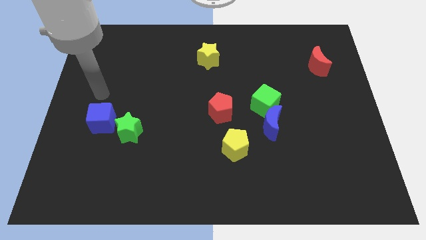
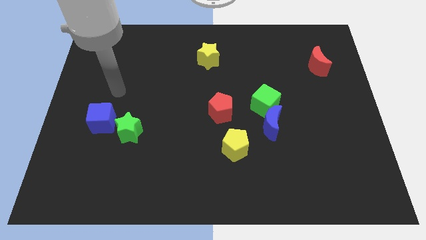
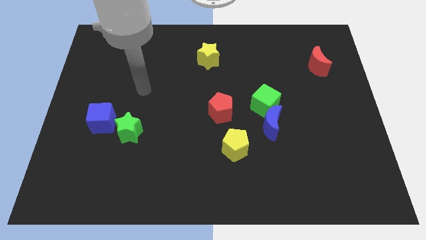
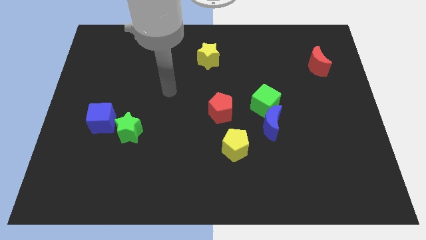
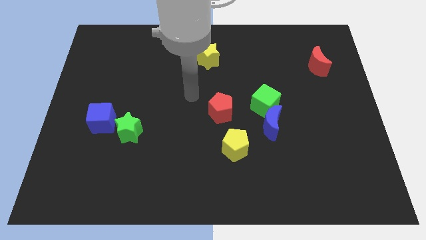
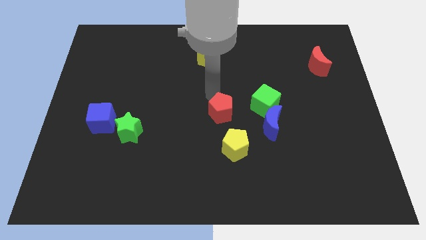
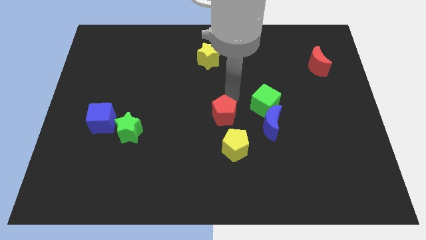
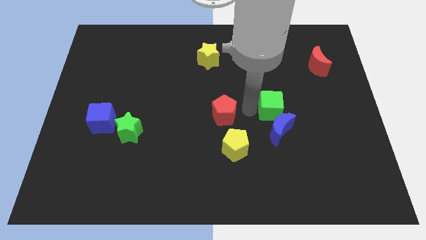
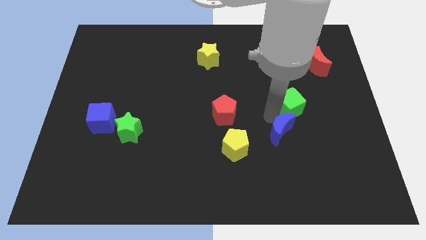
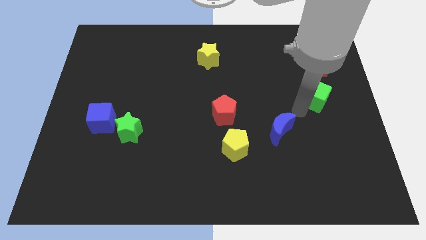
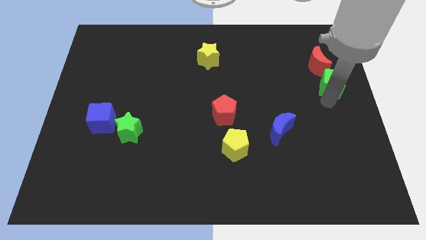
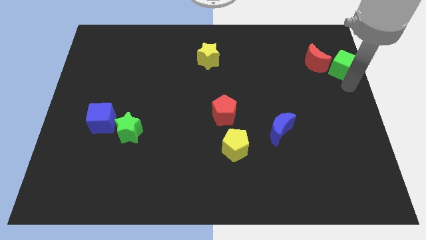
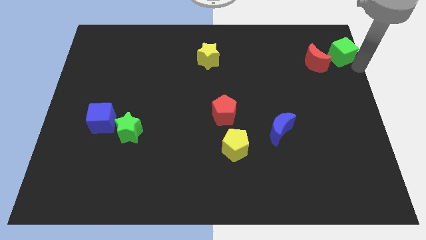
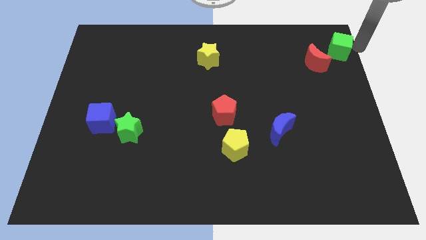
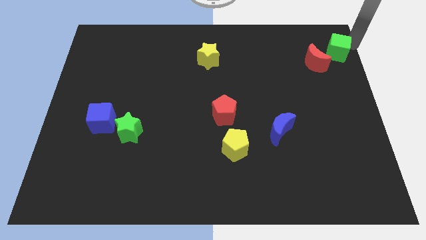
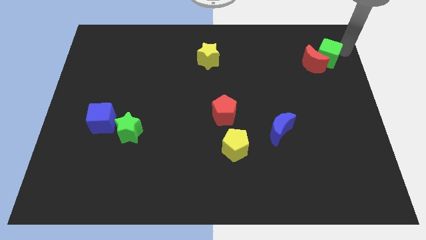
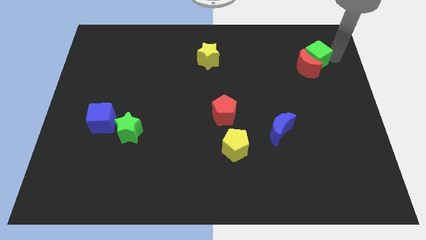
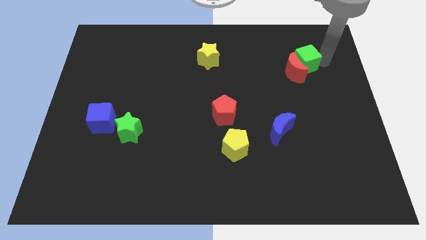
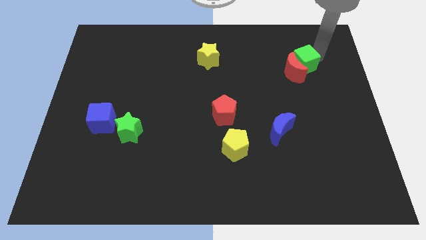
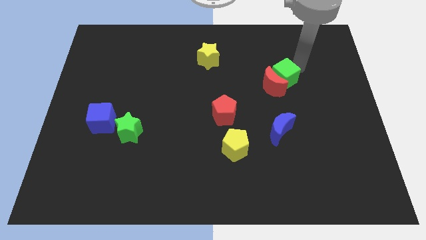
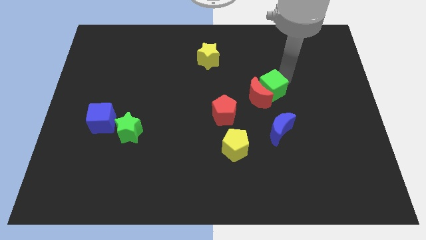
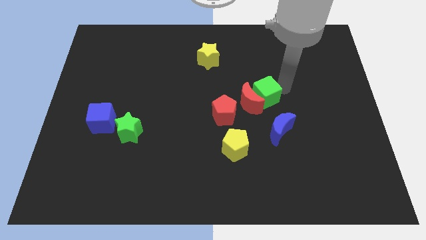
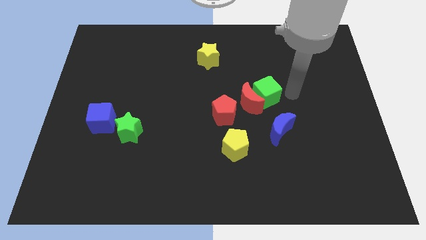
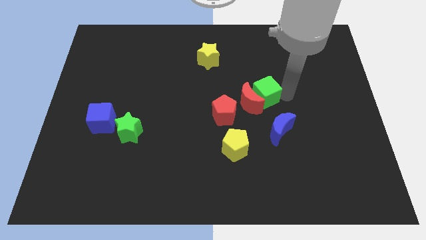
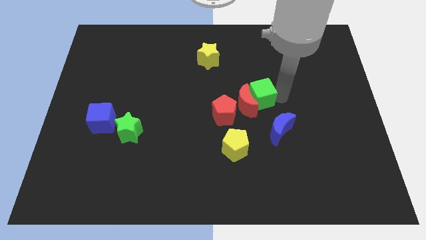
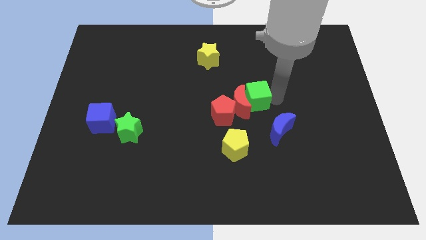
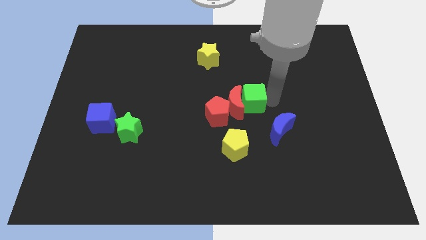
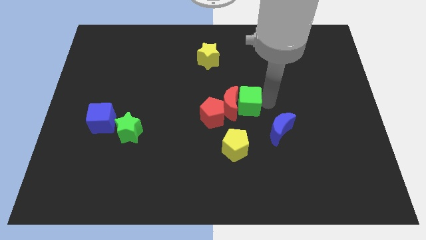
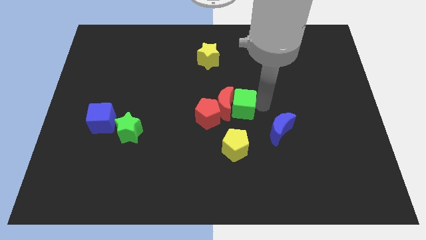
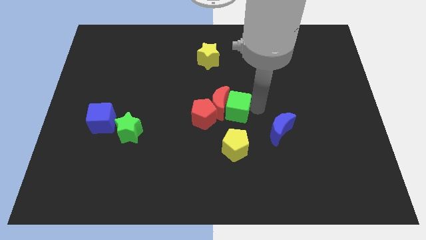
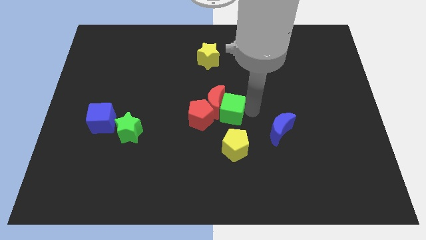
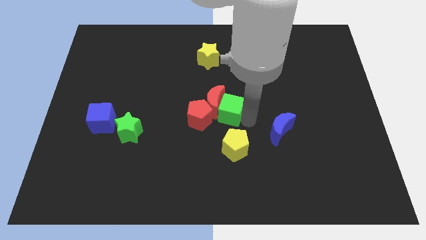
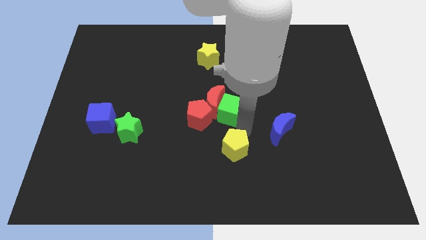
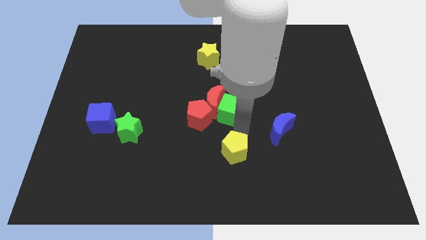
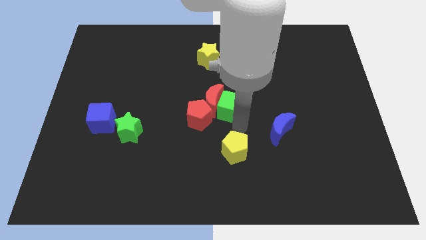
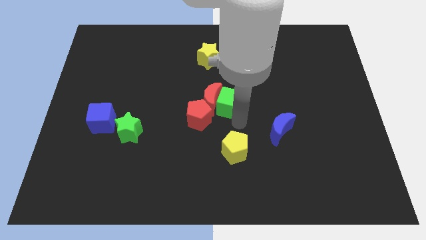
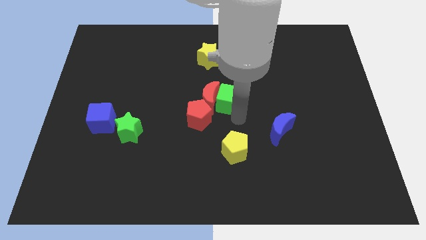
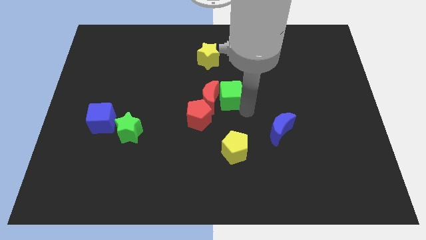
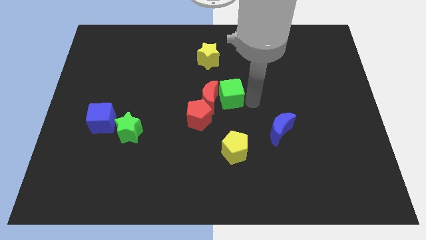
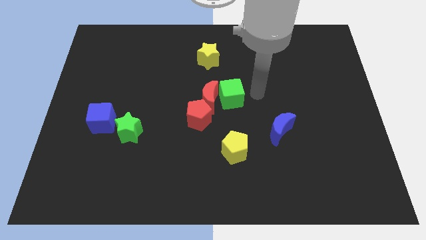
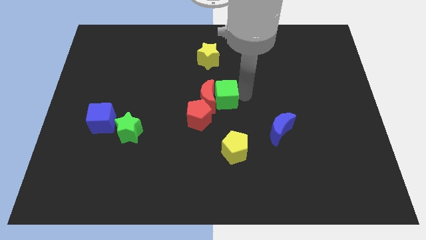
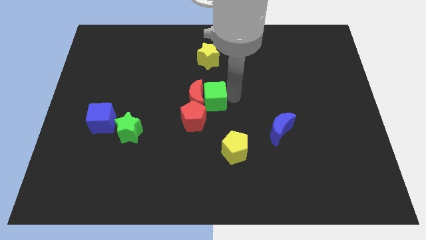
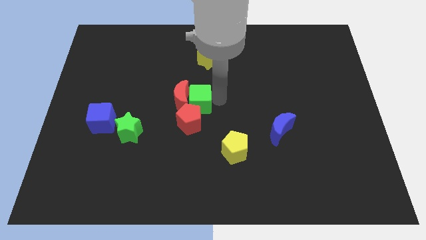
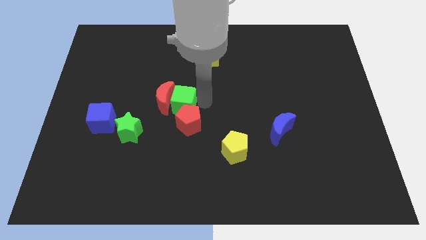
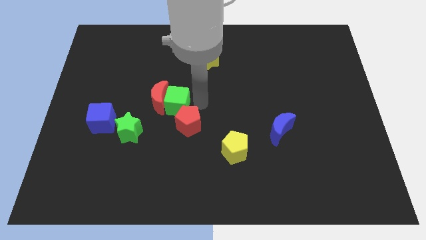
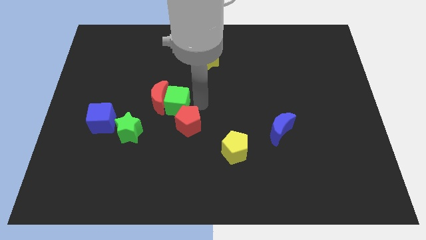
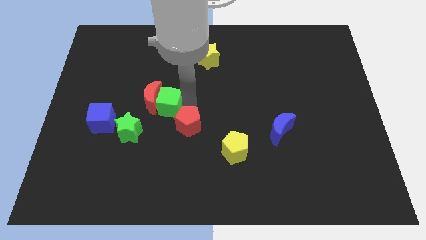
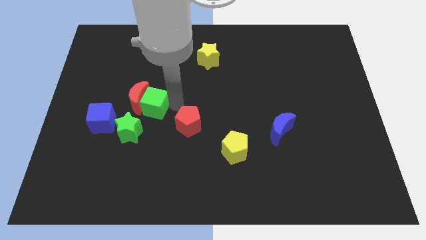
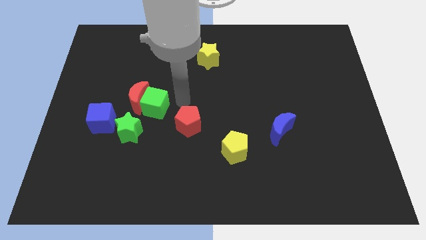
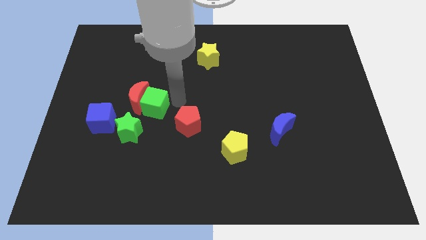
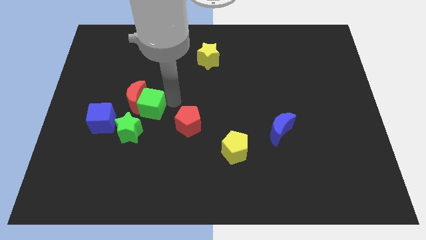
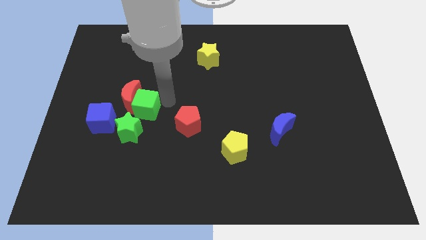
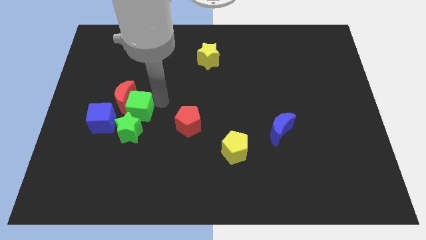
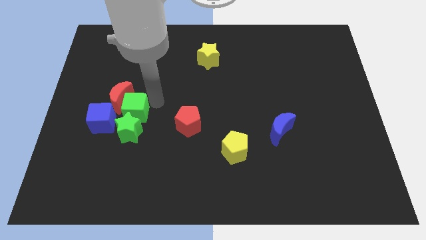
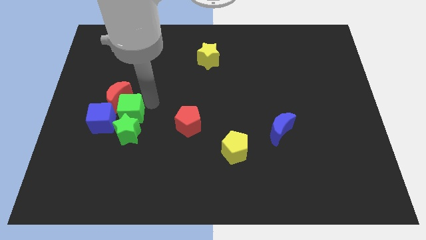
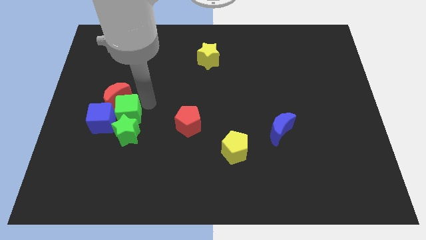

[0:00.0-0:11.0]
move the green cube next to the blue cube

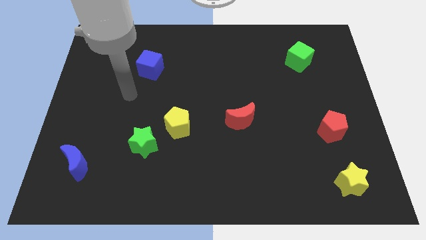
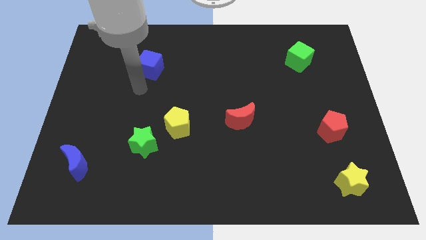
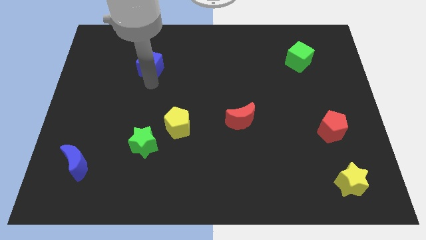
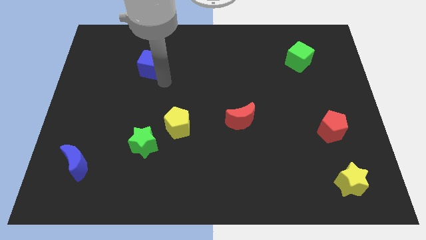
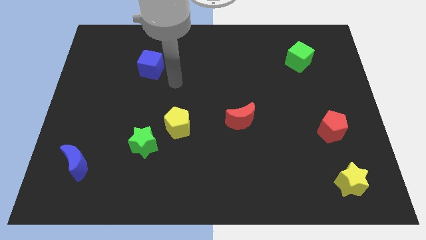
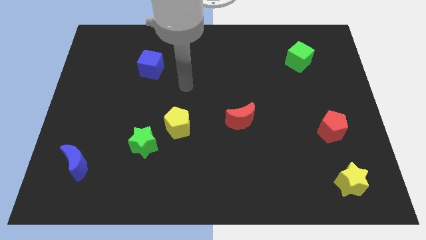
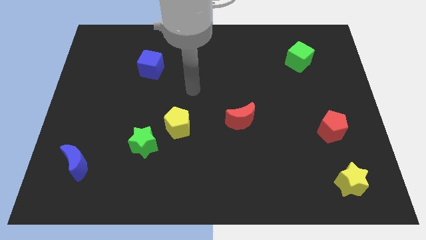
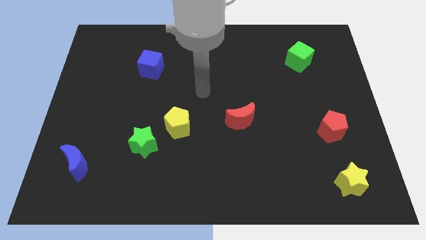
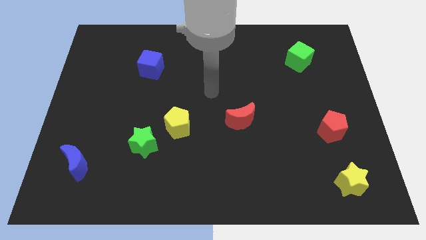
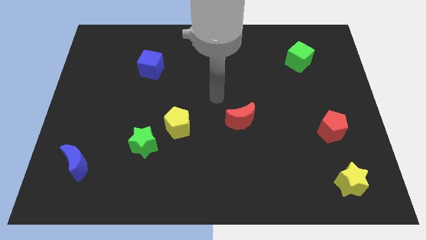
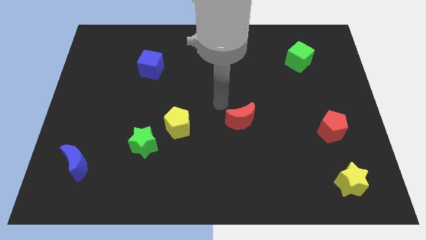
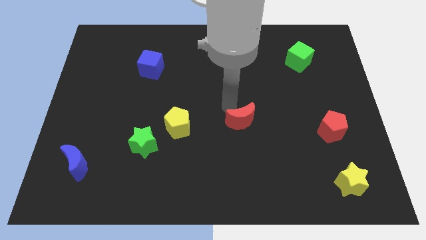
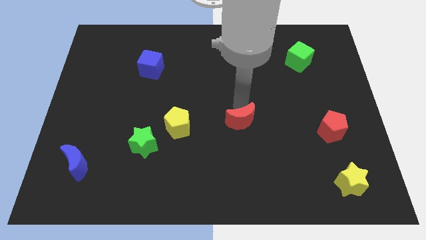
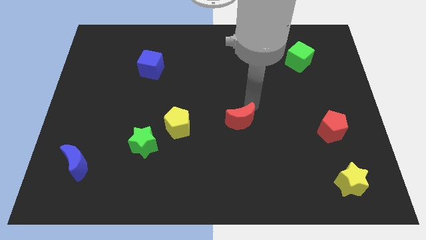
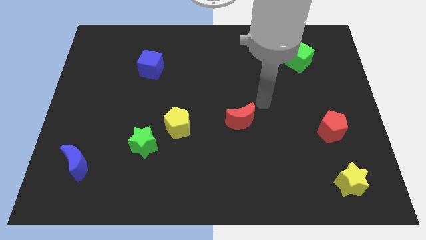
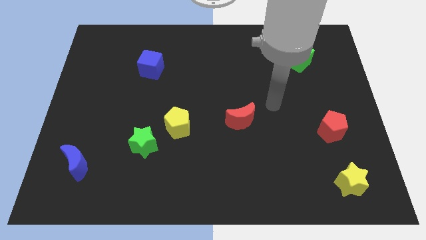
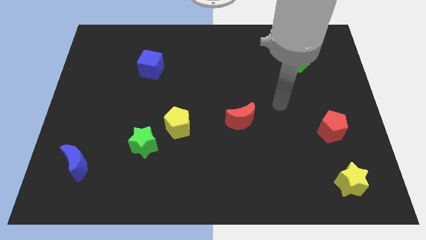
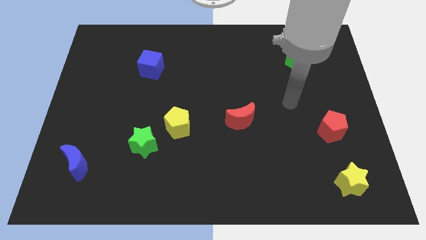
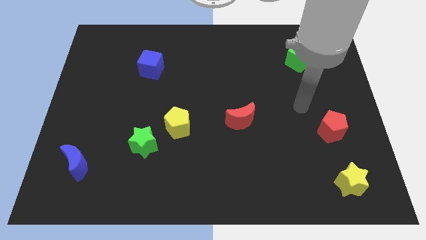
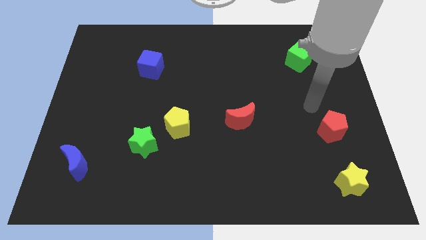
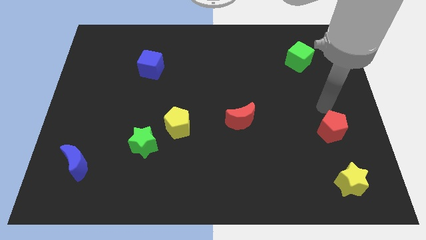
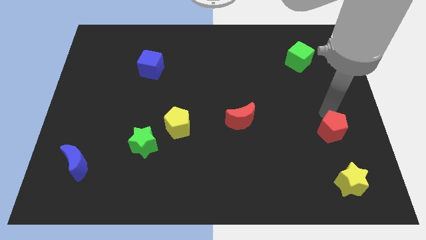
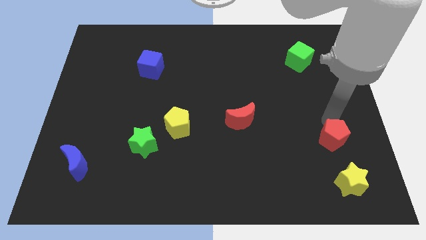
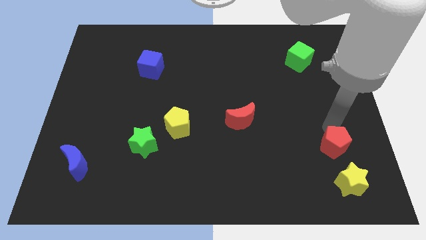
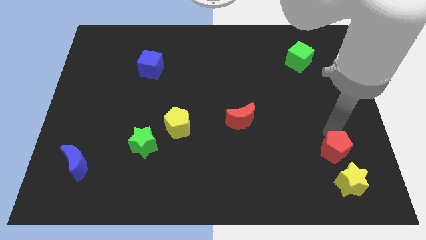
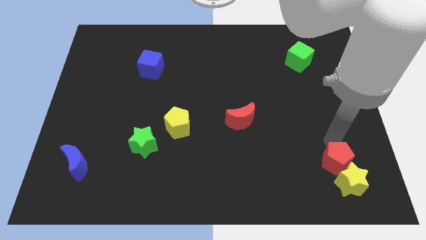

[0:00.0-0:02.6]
put the red pentagon close to the yellow star
